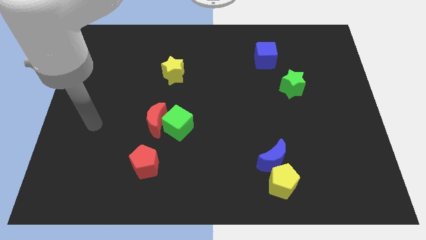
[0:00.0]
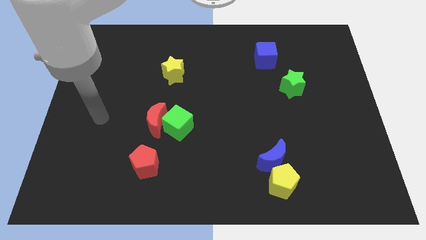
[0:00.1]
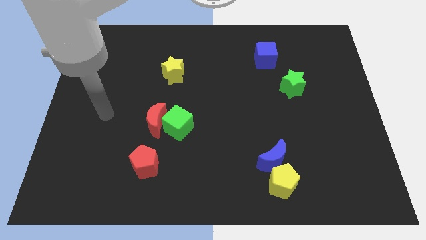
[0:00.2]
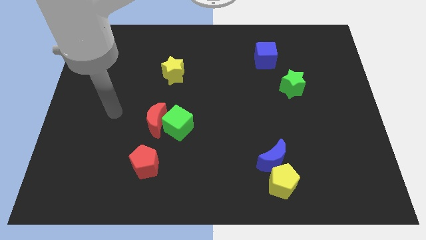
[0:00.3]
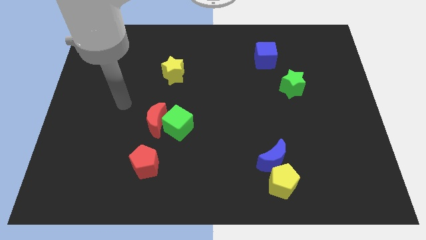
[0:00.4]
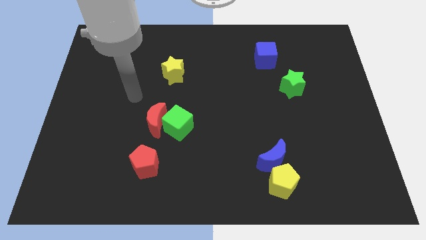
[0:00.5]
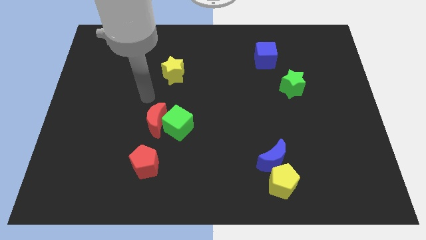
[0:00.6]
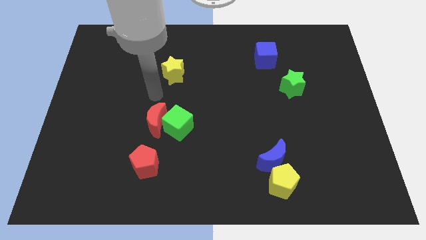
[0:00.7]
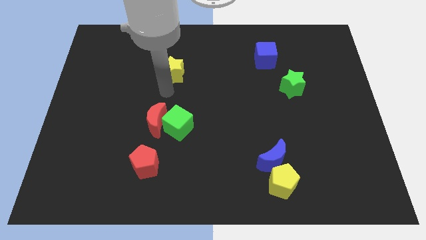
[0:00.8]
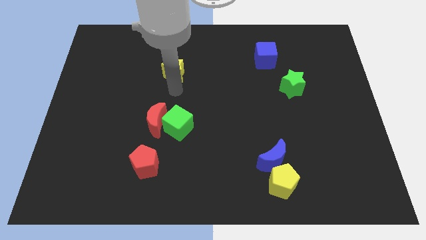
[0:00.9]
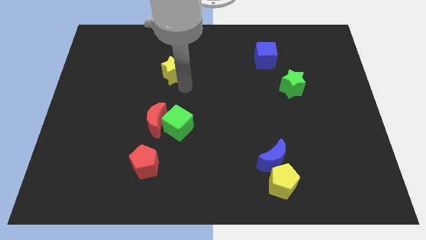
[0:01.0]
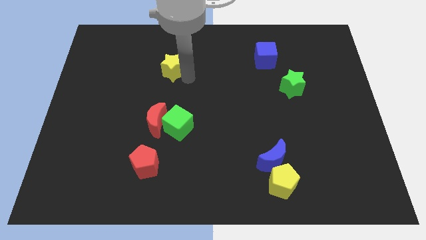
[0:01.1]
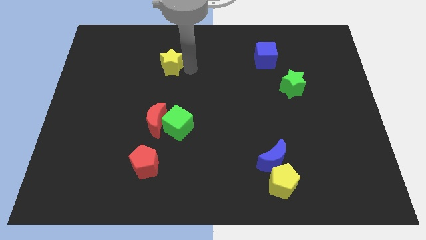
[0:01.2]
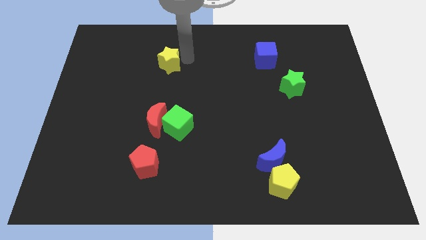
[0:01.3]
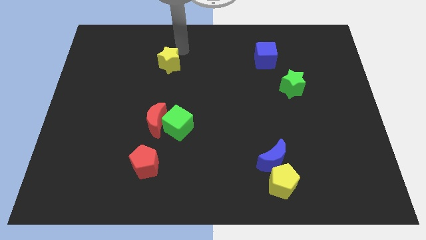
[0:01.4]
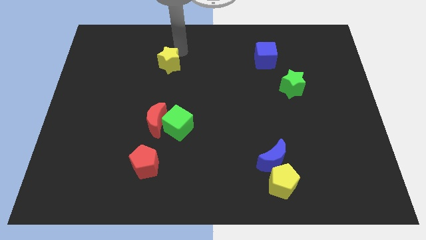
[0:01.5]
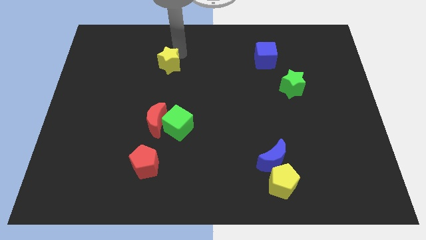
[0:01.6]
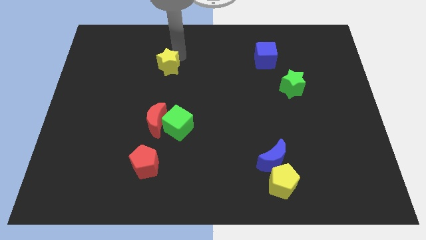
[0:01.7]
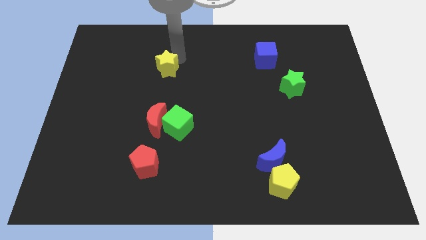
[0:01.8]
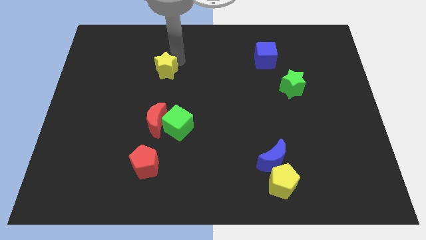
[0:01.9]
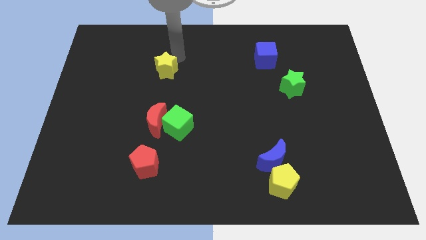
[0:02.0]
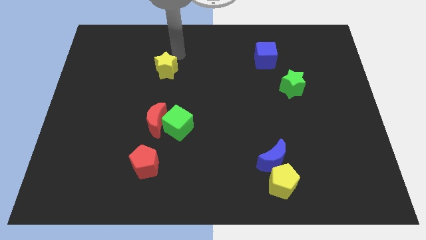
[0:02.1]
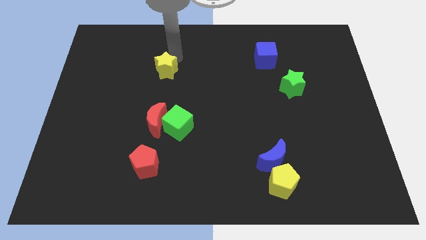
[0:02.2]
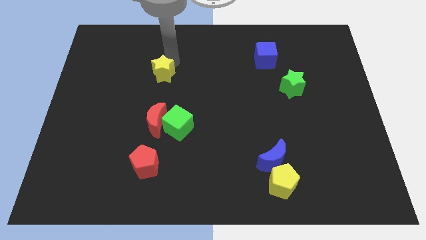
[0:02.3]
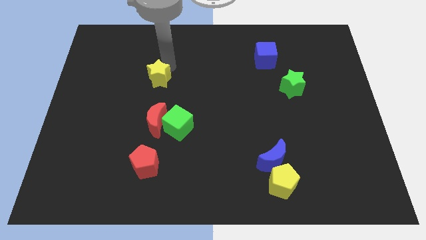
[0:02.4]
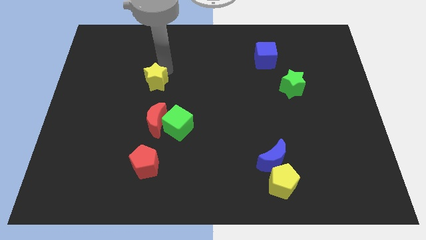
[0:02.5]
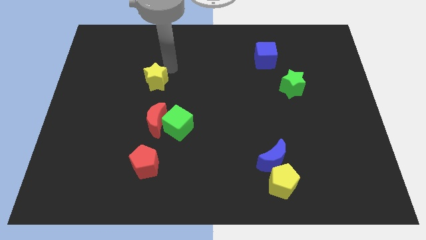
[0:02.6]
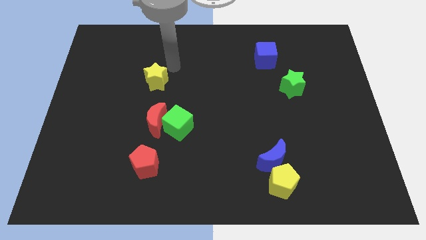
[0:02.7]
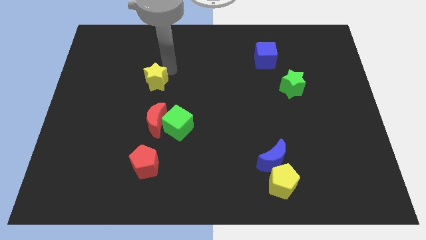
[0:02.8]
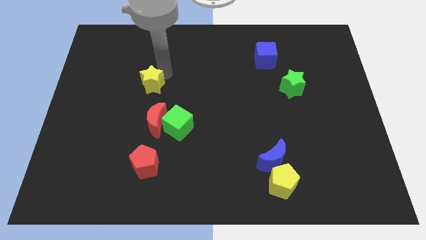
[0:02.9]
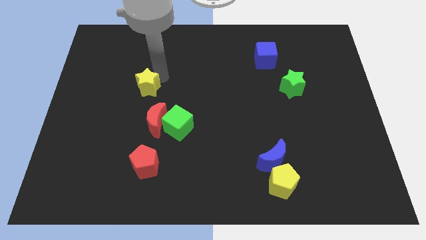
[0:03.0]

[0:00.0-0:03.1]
slide the yellow star a little bit down and left

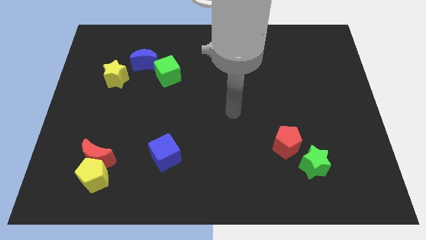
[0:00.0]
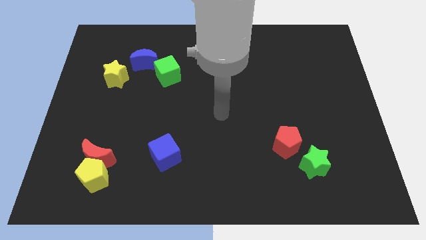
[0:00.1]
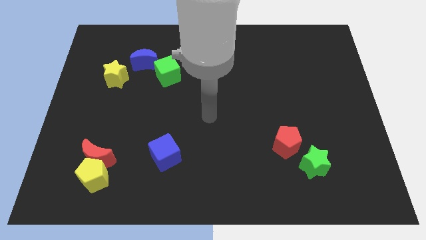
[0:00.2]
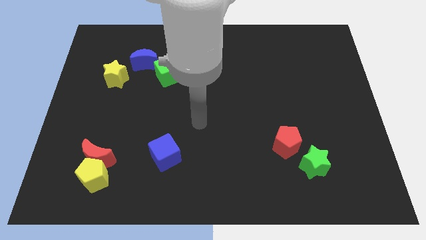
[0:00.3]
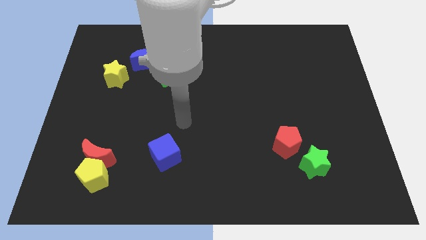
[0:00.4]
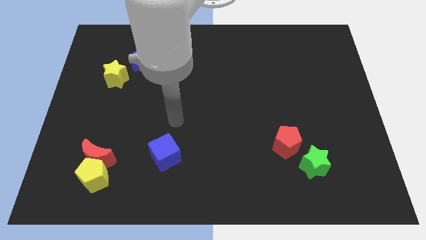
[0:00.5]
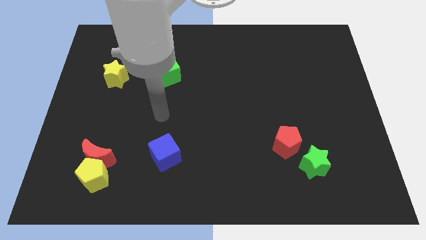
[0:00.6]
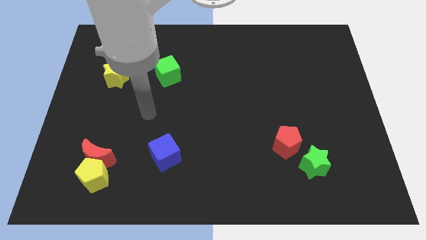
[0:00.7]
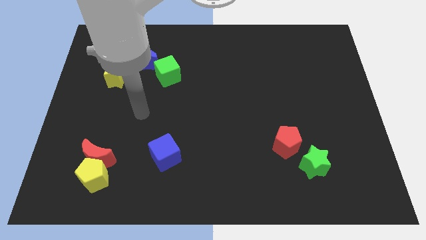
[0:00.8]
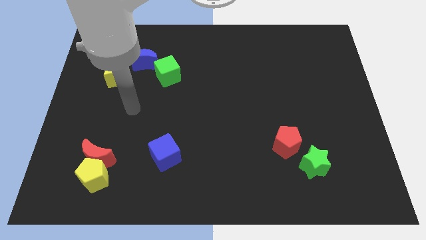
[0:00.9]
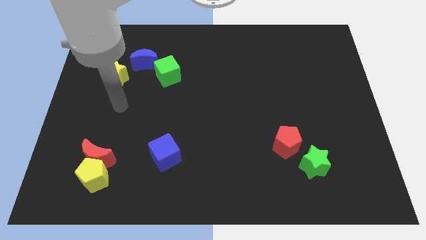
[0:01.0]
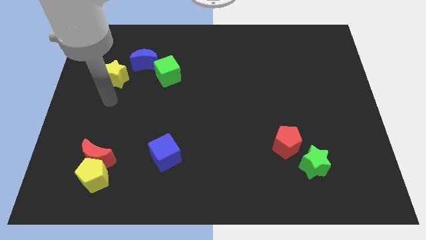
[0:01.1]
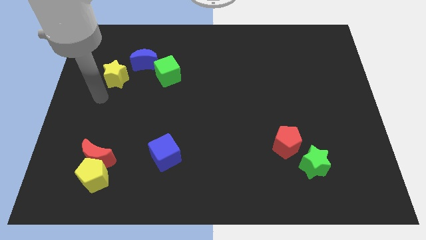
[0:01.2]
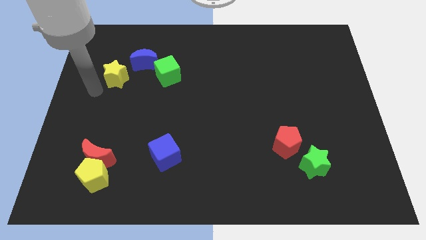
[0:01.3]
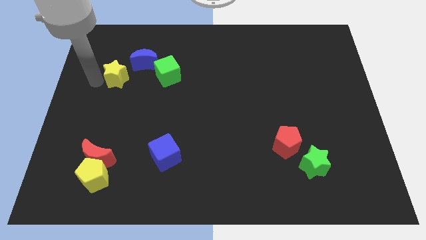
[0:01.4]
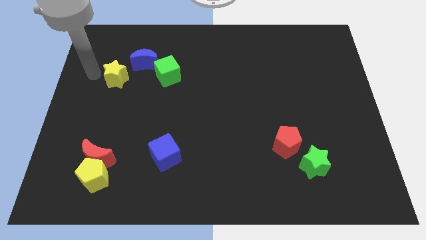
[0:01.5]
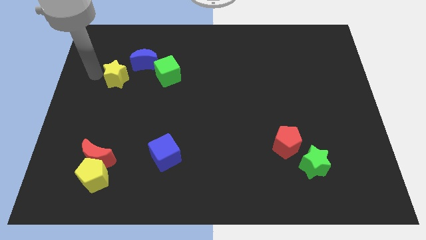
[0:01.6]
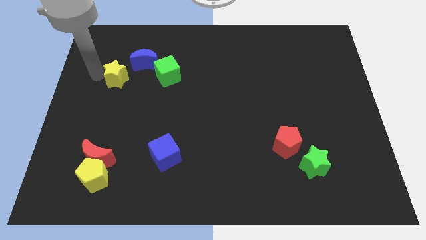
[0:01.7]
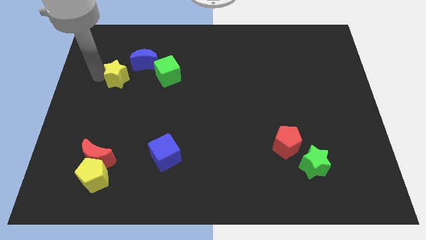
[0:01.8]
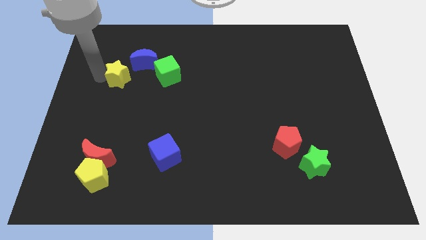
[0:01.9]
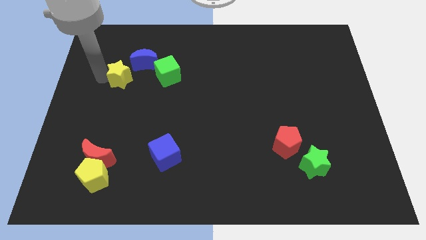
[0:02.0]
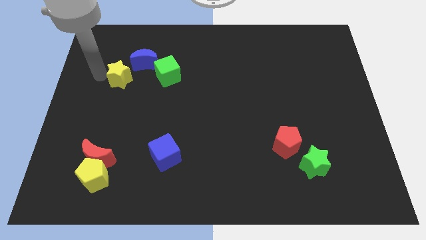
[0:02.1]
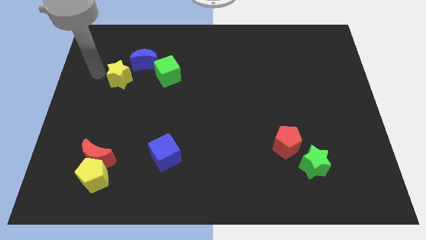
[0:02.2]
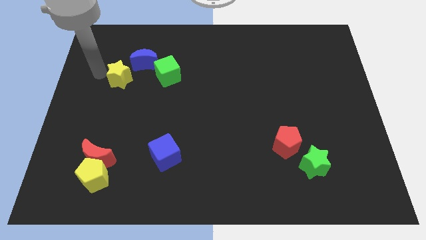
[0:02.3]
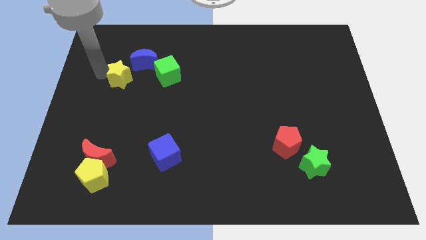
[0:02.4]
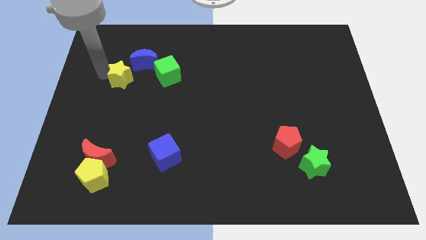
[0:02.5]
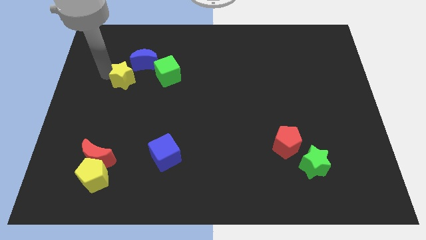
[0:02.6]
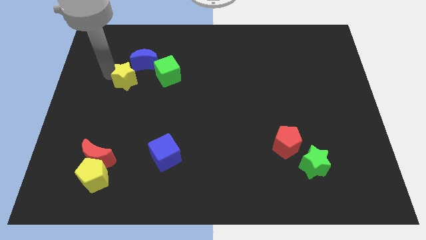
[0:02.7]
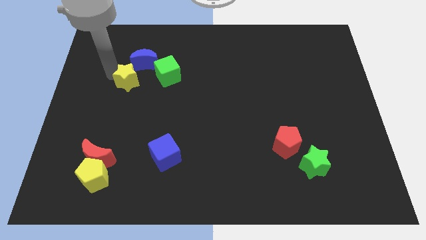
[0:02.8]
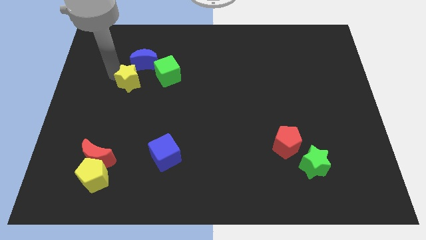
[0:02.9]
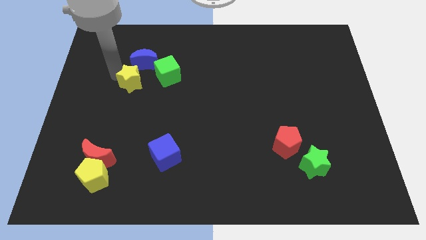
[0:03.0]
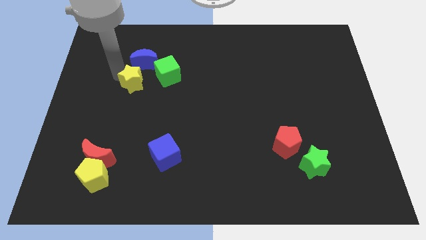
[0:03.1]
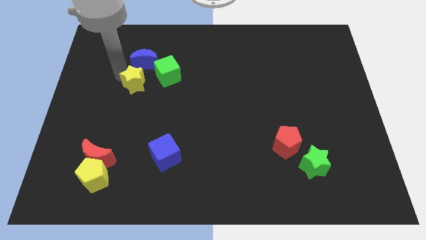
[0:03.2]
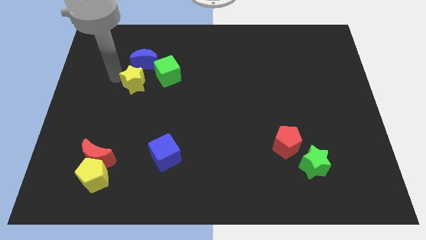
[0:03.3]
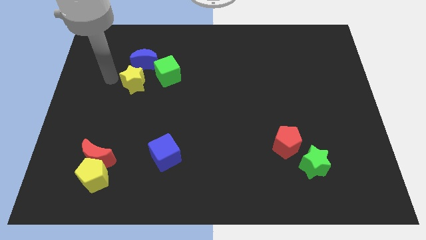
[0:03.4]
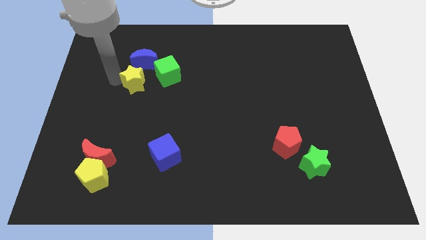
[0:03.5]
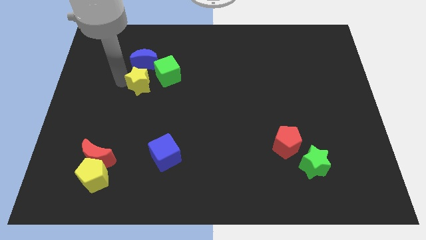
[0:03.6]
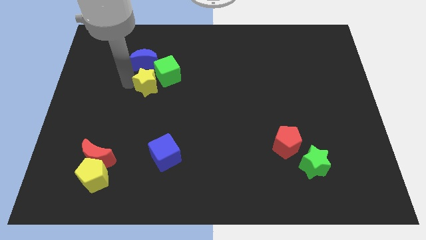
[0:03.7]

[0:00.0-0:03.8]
slightly slide the yellow star to the right

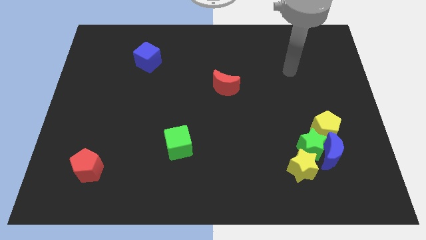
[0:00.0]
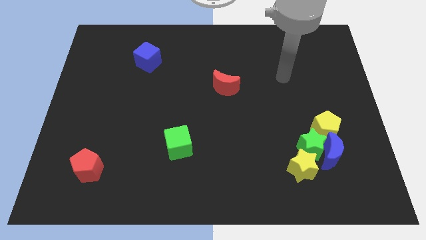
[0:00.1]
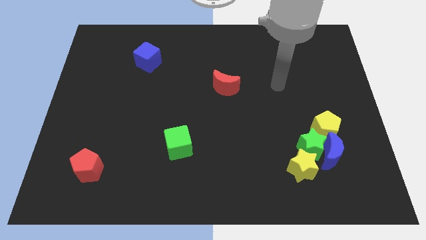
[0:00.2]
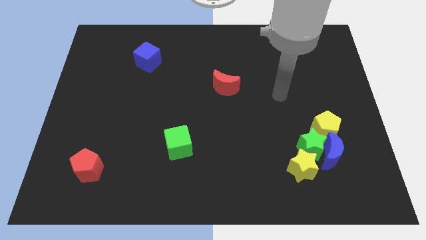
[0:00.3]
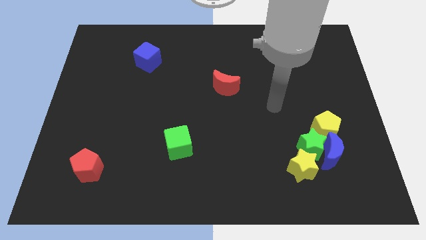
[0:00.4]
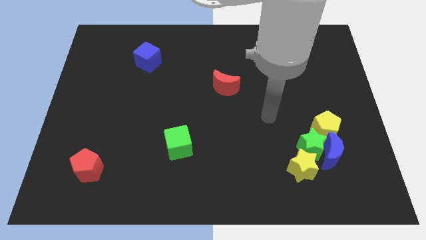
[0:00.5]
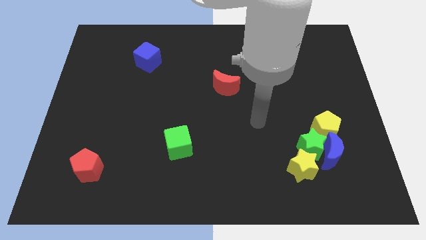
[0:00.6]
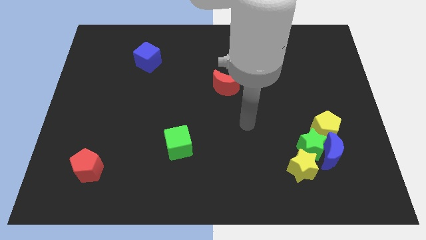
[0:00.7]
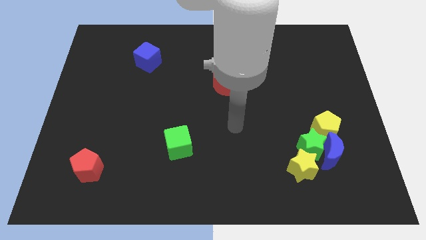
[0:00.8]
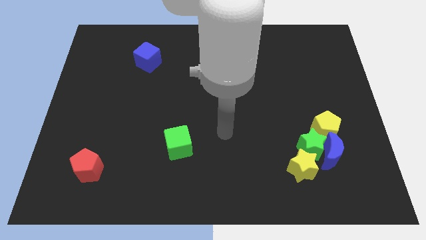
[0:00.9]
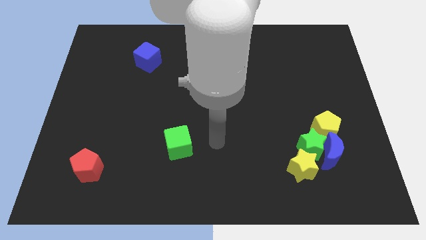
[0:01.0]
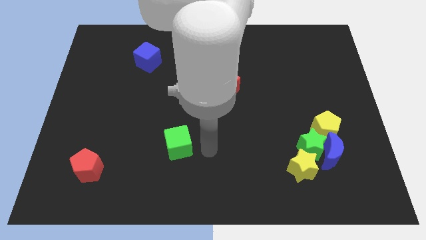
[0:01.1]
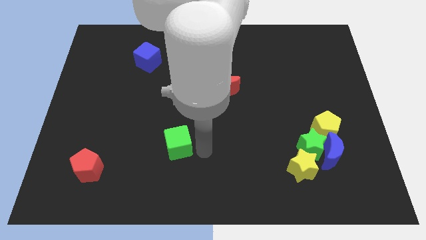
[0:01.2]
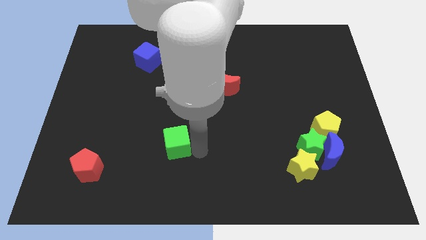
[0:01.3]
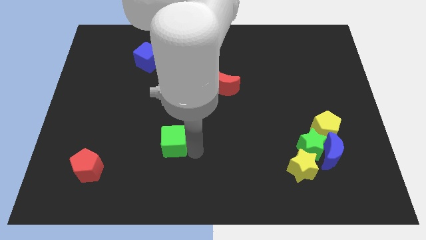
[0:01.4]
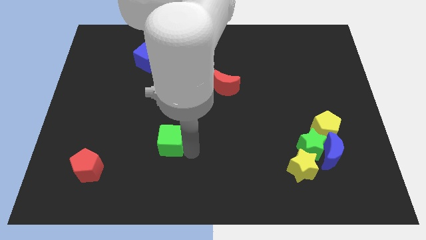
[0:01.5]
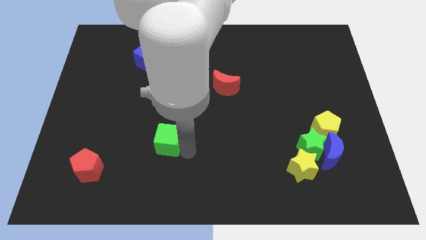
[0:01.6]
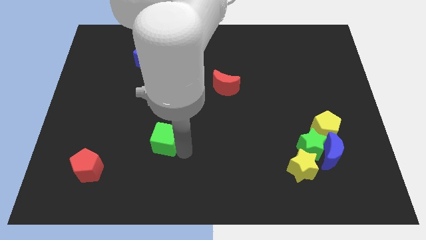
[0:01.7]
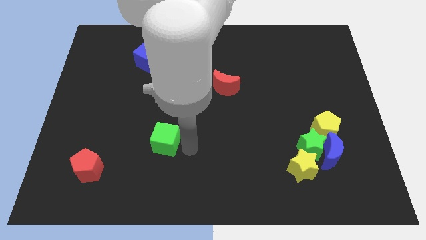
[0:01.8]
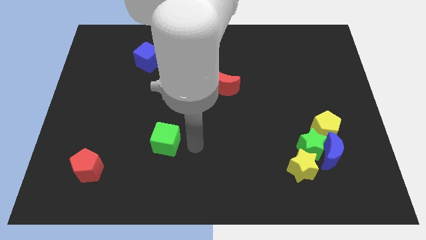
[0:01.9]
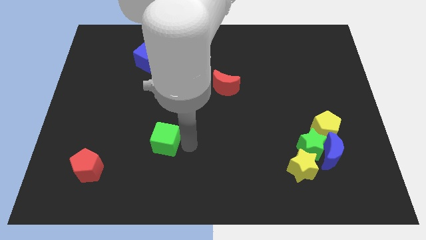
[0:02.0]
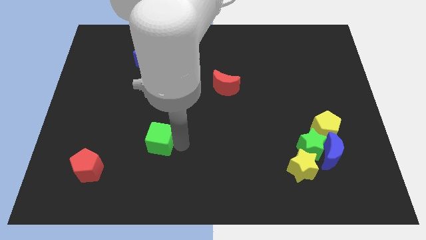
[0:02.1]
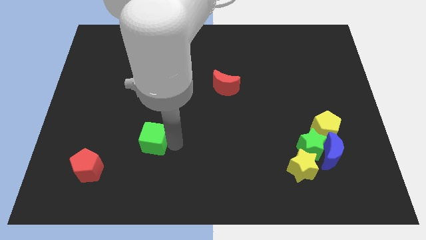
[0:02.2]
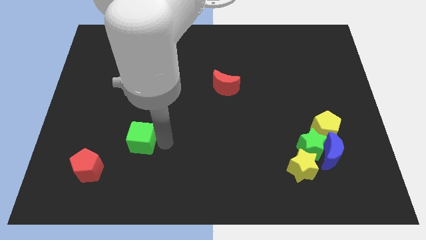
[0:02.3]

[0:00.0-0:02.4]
slightly move the green cube left
